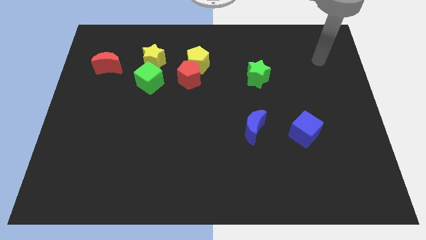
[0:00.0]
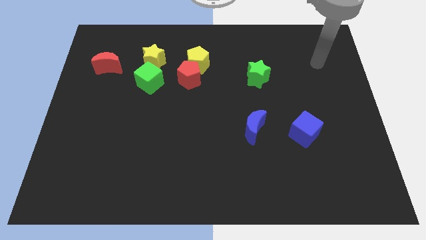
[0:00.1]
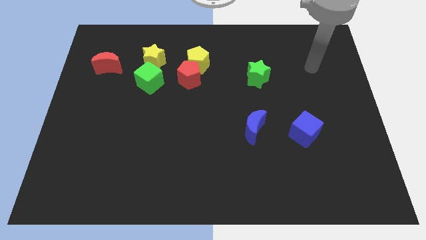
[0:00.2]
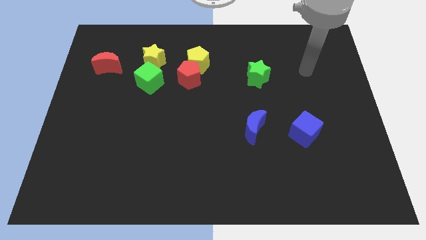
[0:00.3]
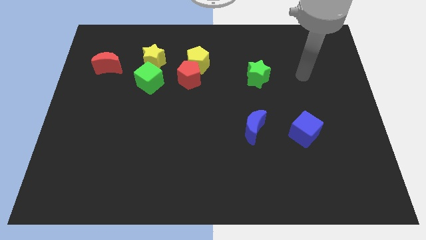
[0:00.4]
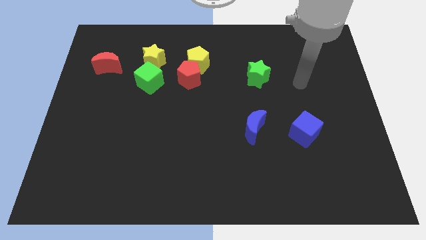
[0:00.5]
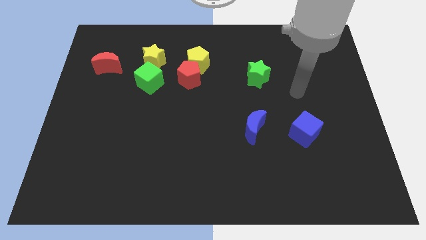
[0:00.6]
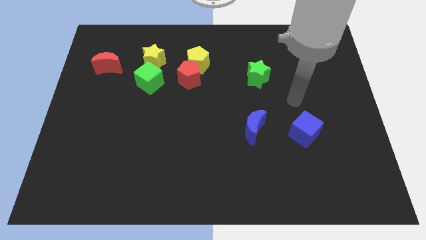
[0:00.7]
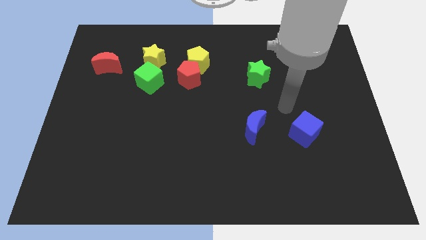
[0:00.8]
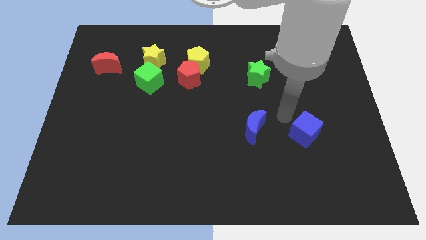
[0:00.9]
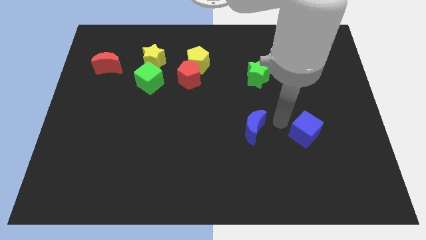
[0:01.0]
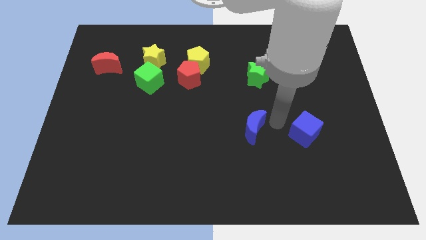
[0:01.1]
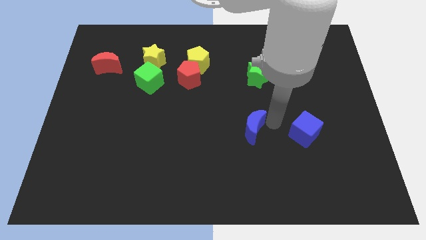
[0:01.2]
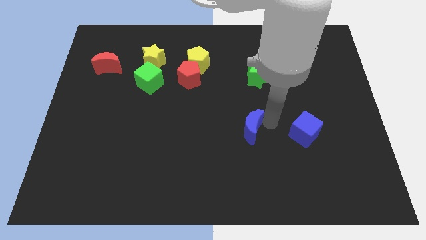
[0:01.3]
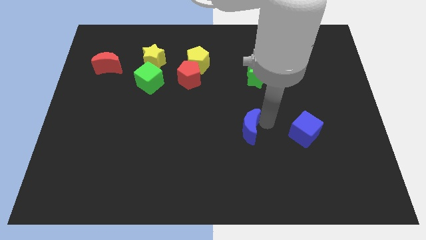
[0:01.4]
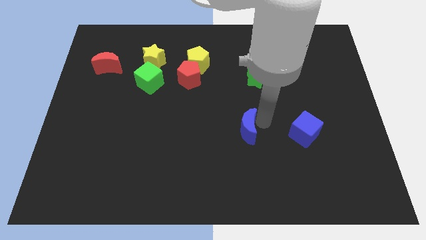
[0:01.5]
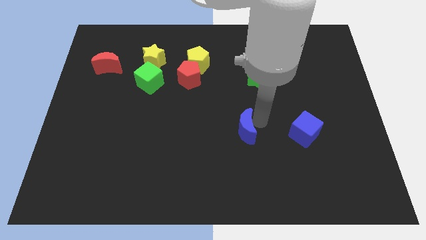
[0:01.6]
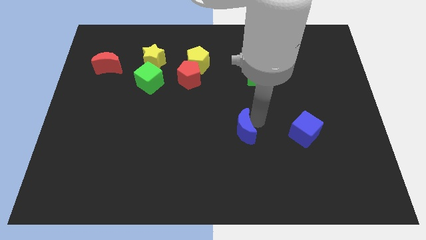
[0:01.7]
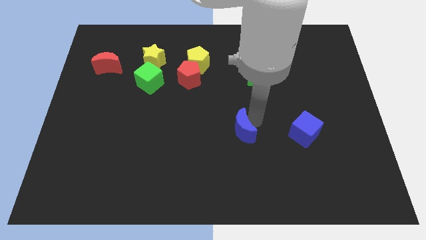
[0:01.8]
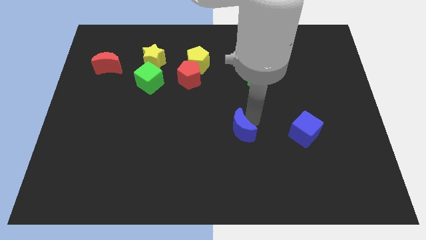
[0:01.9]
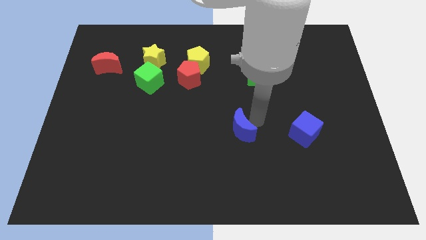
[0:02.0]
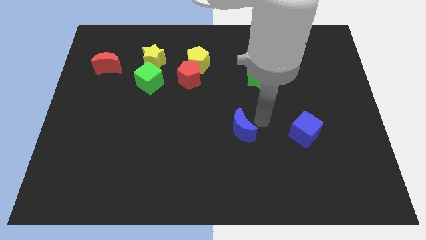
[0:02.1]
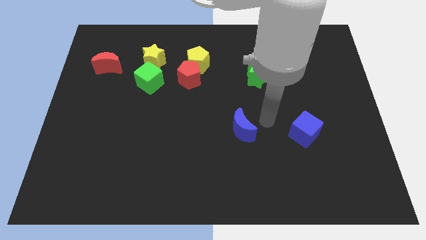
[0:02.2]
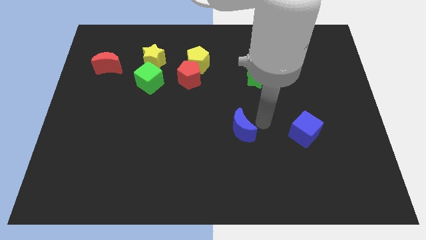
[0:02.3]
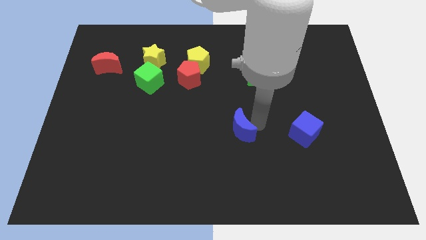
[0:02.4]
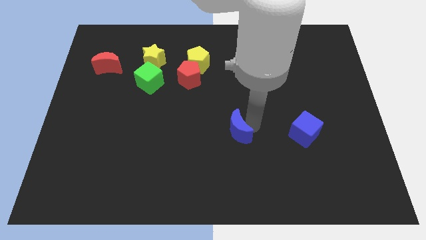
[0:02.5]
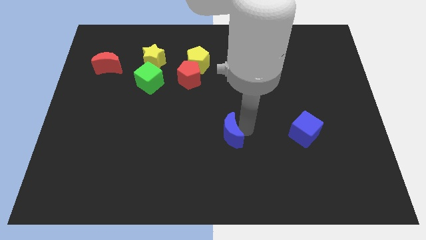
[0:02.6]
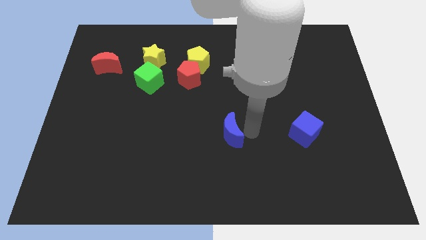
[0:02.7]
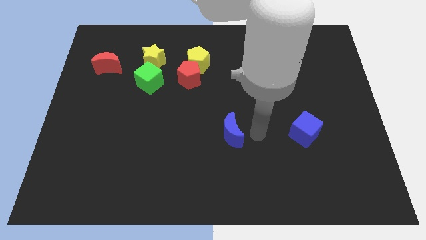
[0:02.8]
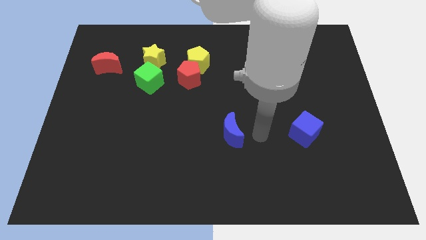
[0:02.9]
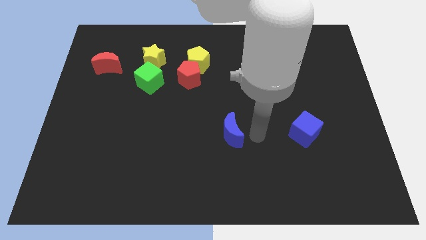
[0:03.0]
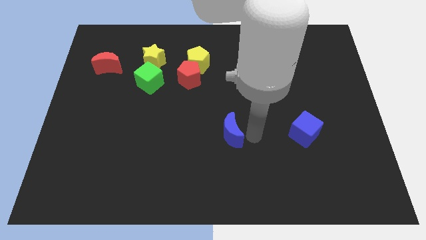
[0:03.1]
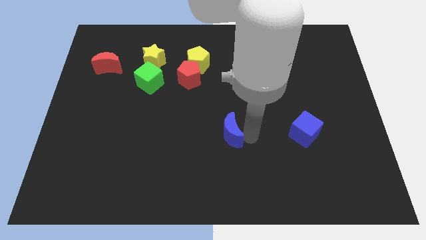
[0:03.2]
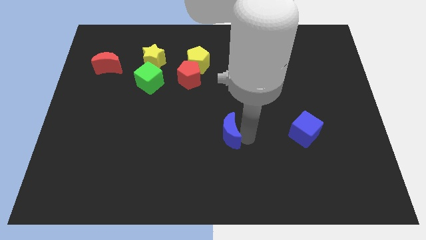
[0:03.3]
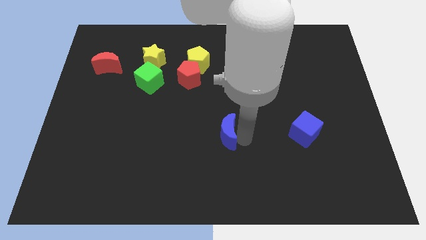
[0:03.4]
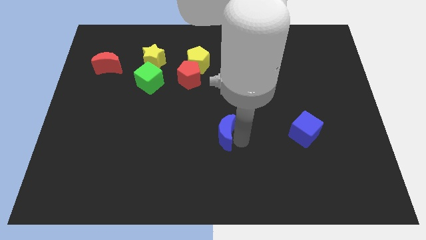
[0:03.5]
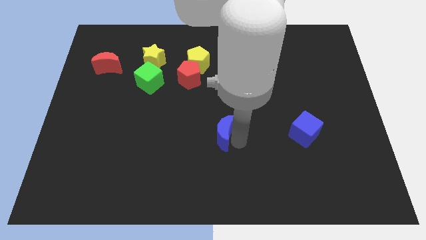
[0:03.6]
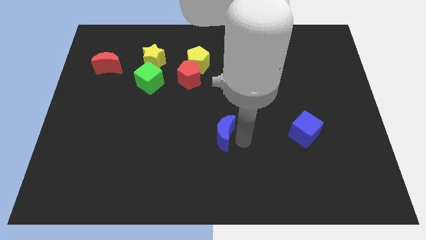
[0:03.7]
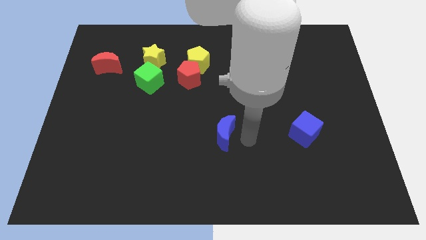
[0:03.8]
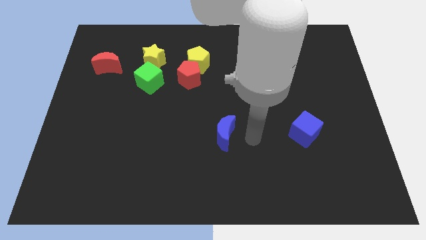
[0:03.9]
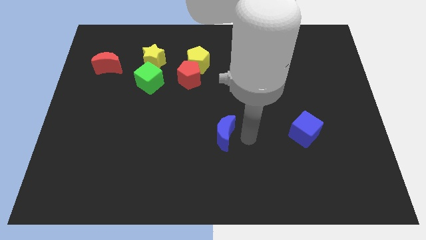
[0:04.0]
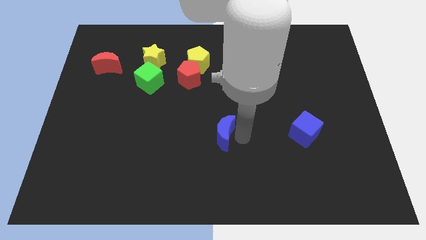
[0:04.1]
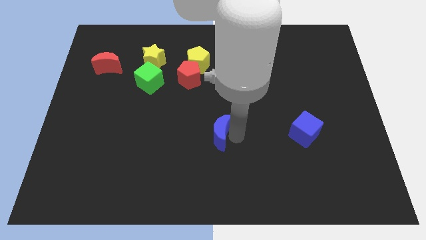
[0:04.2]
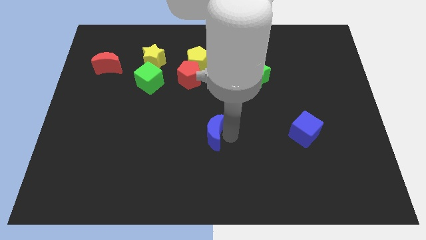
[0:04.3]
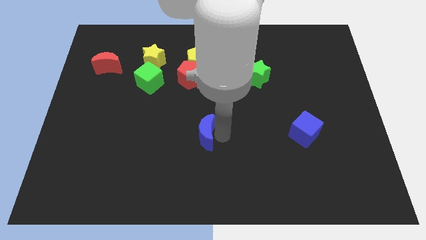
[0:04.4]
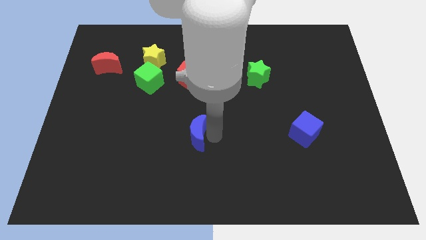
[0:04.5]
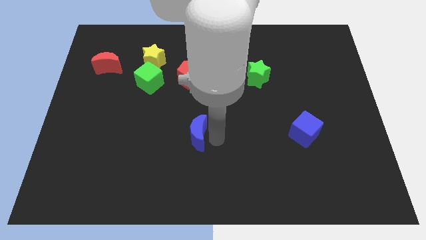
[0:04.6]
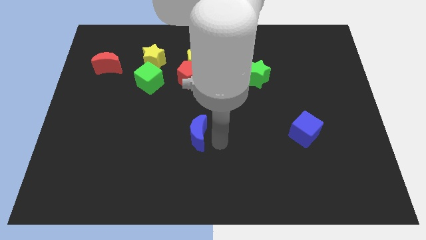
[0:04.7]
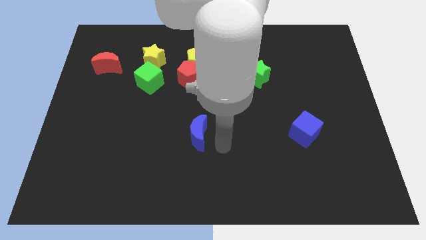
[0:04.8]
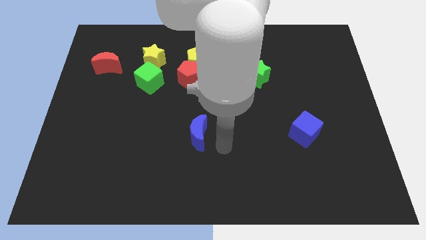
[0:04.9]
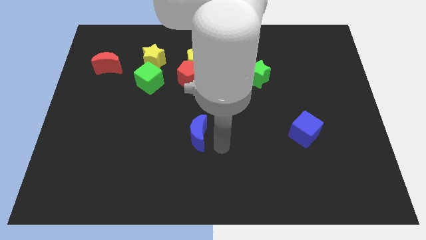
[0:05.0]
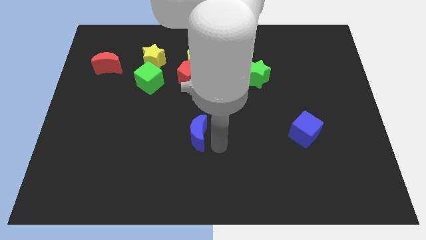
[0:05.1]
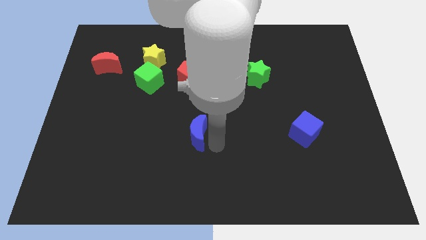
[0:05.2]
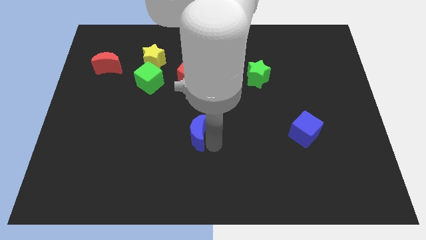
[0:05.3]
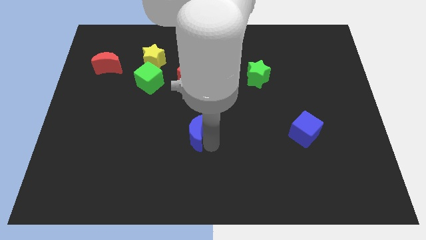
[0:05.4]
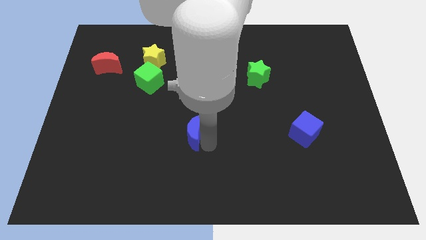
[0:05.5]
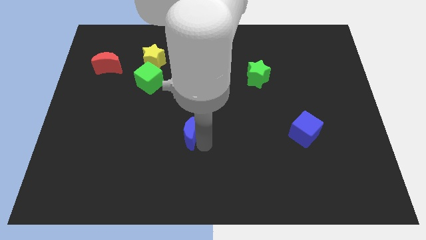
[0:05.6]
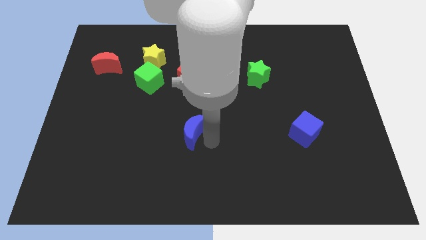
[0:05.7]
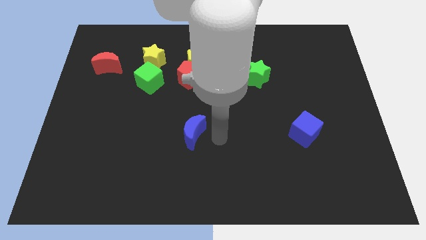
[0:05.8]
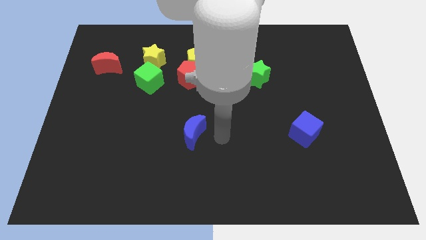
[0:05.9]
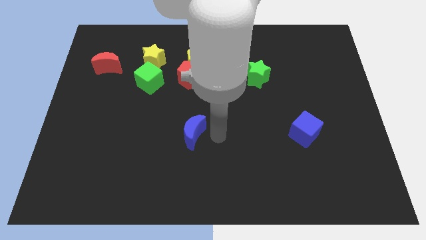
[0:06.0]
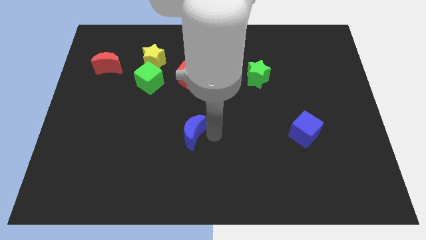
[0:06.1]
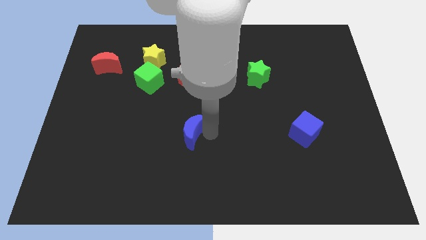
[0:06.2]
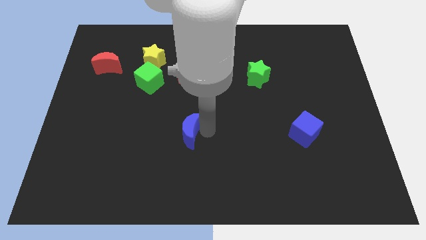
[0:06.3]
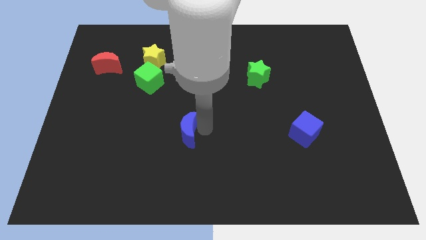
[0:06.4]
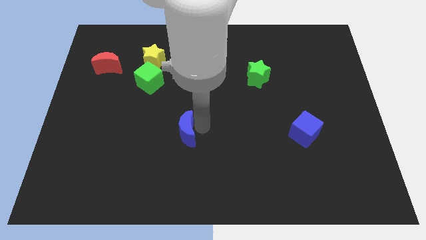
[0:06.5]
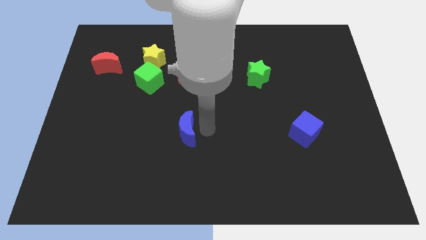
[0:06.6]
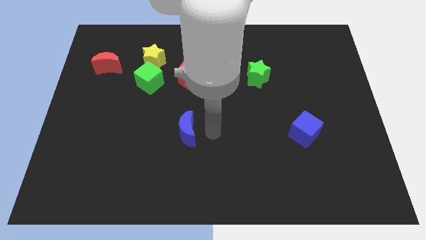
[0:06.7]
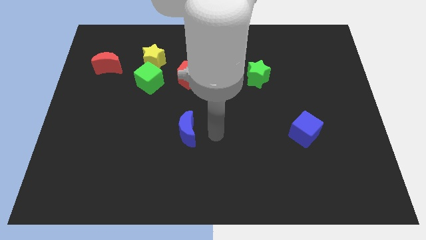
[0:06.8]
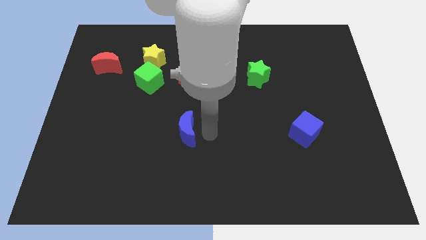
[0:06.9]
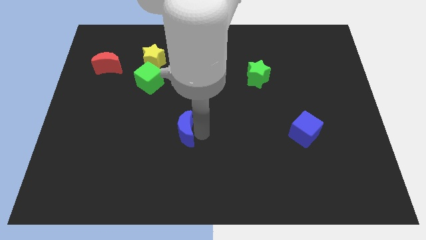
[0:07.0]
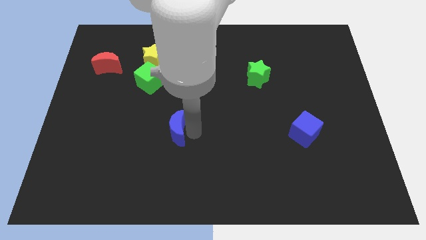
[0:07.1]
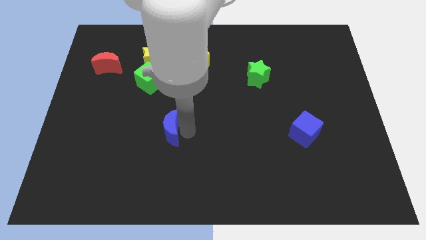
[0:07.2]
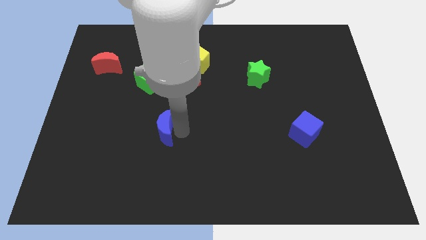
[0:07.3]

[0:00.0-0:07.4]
move the blue moon to the left

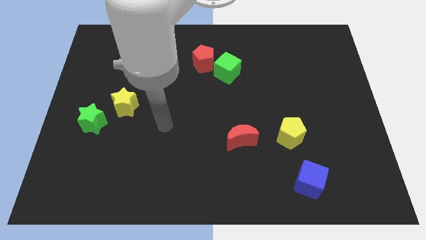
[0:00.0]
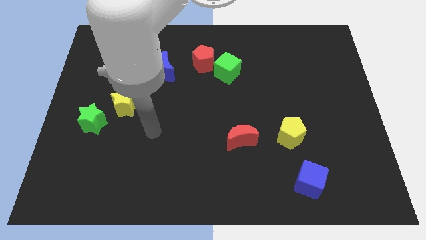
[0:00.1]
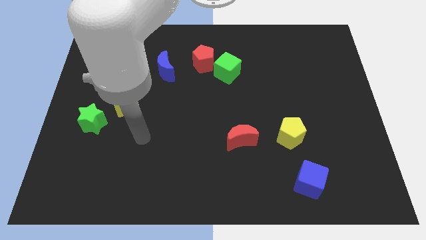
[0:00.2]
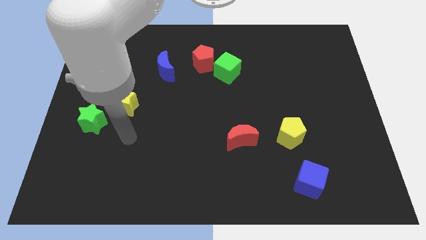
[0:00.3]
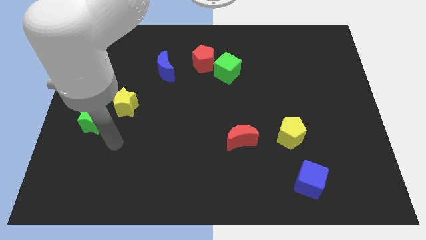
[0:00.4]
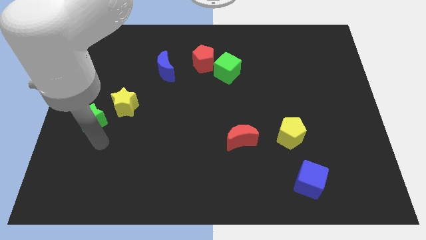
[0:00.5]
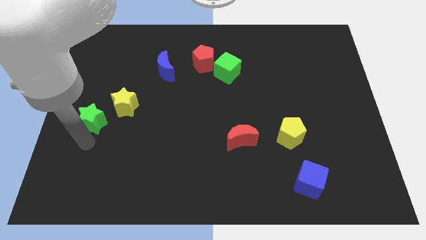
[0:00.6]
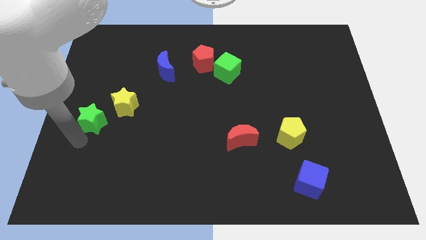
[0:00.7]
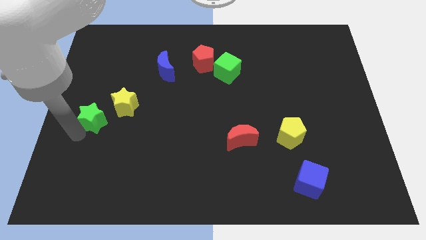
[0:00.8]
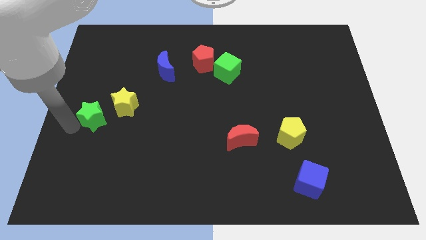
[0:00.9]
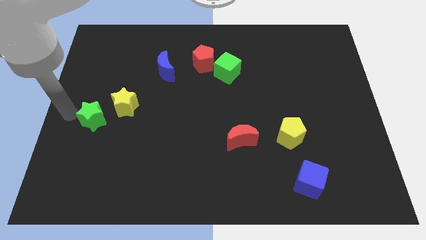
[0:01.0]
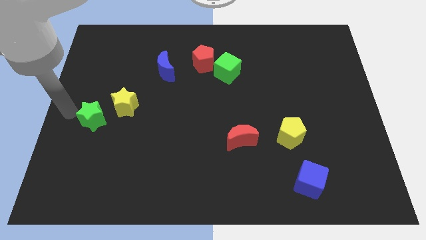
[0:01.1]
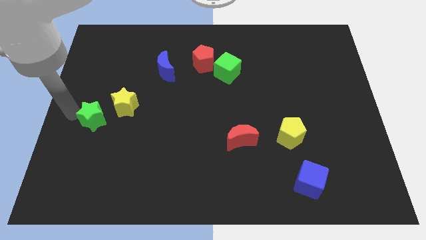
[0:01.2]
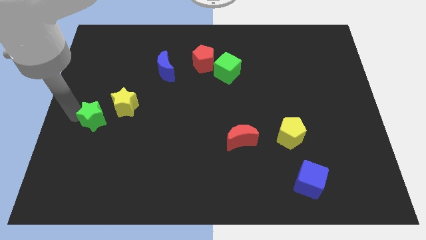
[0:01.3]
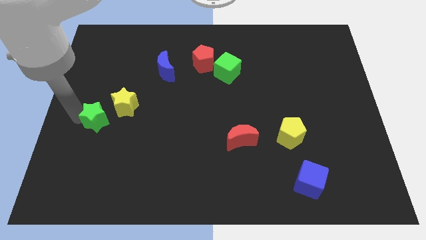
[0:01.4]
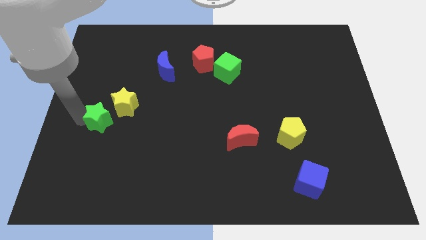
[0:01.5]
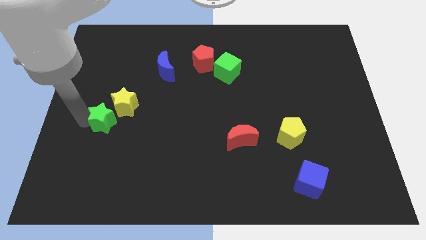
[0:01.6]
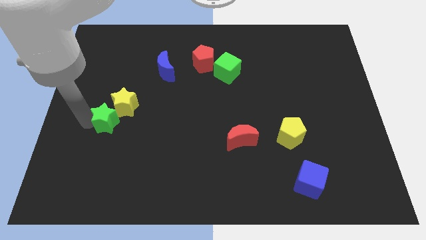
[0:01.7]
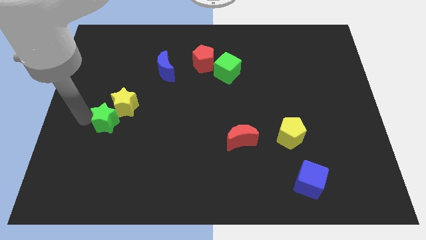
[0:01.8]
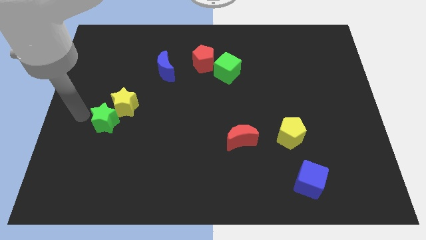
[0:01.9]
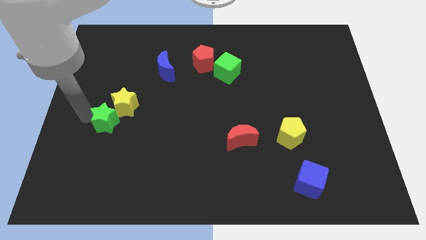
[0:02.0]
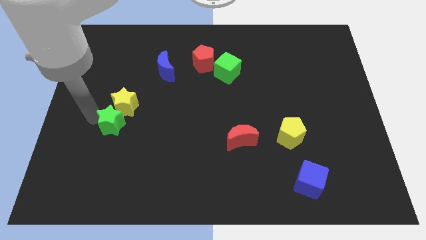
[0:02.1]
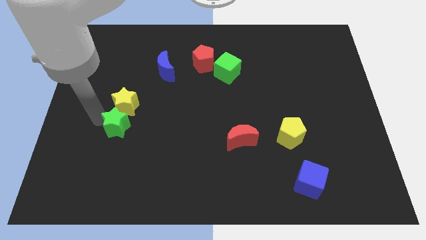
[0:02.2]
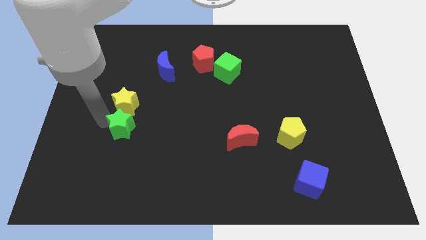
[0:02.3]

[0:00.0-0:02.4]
move the green star somewhat right
